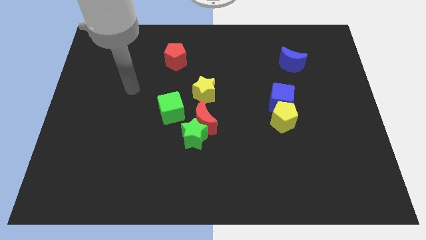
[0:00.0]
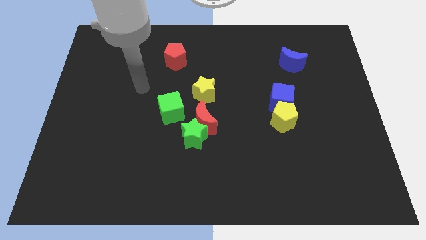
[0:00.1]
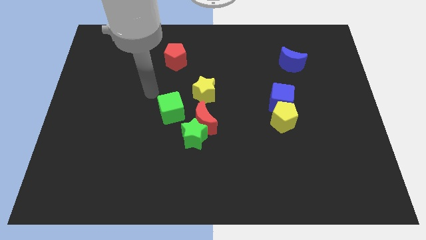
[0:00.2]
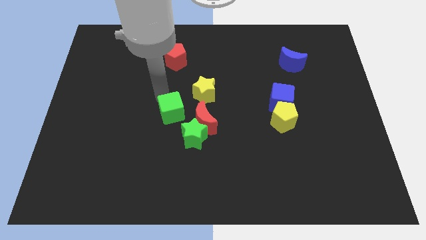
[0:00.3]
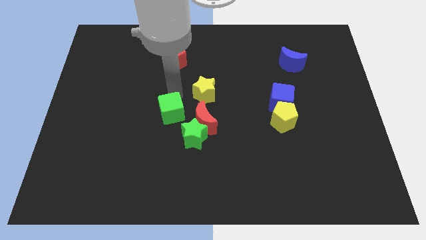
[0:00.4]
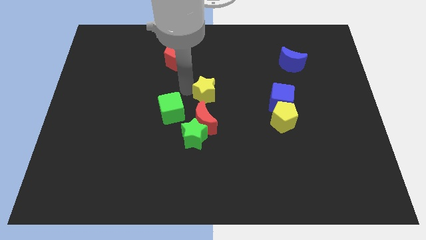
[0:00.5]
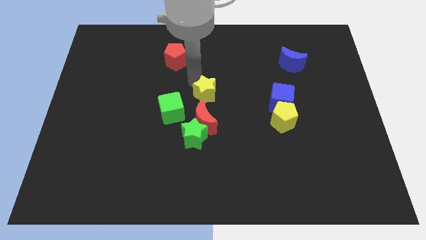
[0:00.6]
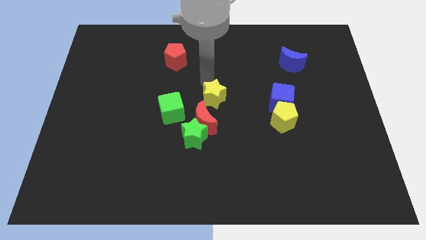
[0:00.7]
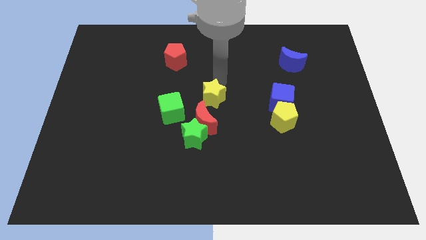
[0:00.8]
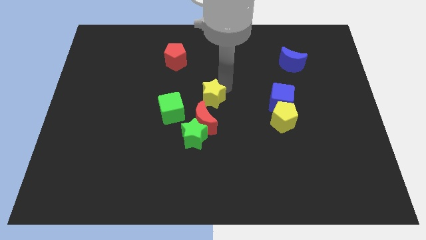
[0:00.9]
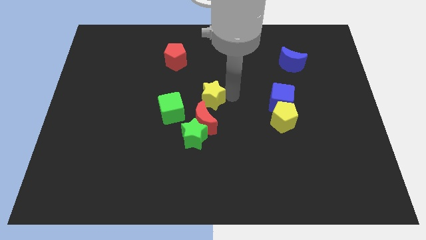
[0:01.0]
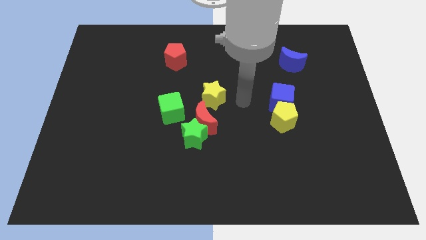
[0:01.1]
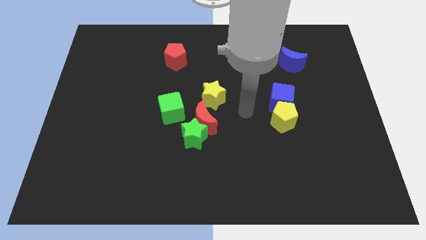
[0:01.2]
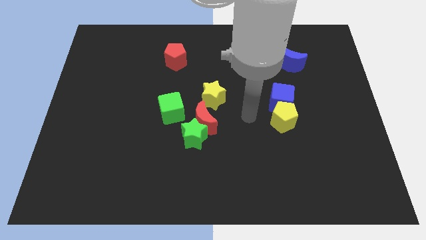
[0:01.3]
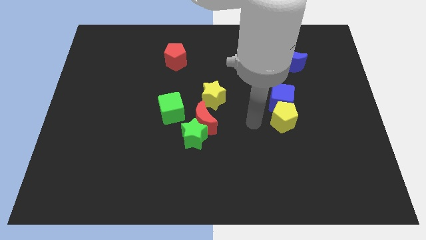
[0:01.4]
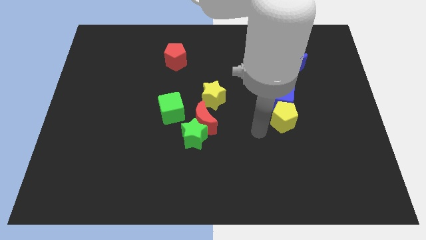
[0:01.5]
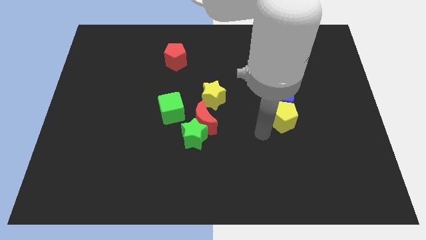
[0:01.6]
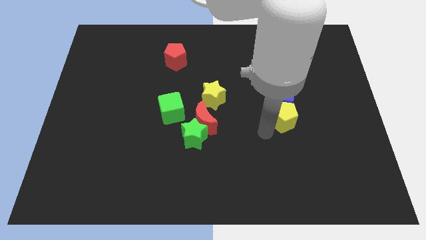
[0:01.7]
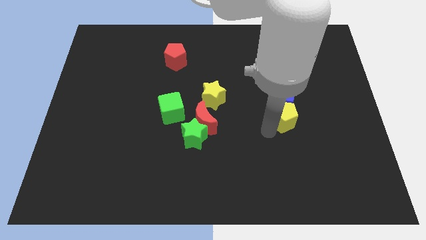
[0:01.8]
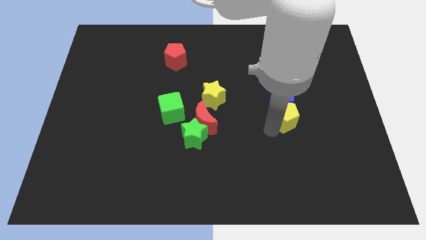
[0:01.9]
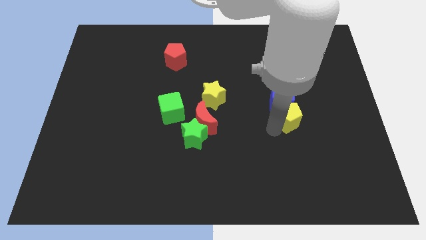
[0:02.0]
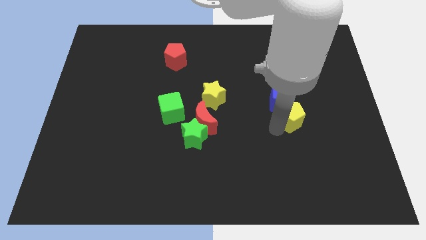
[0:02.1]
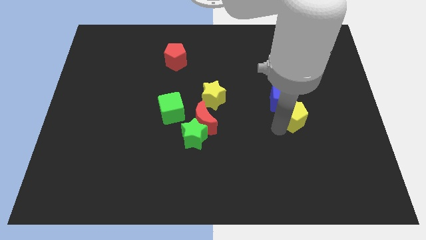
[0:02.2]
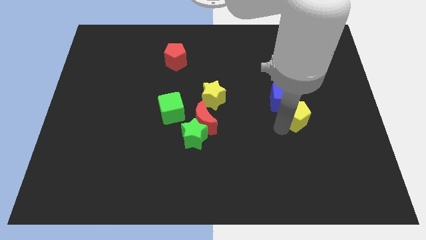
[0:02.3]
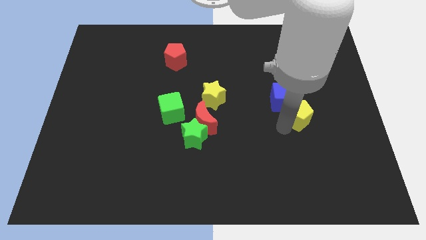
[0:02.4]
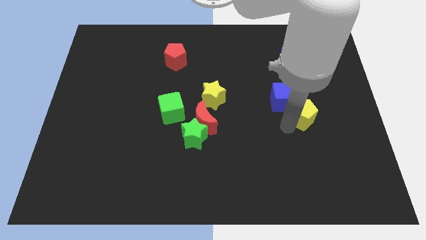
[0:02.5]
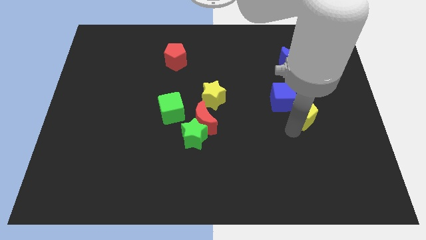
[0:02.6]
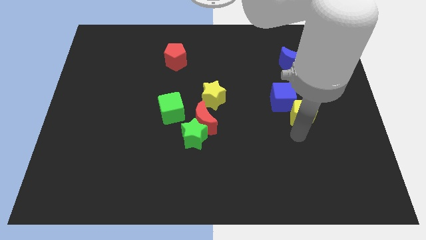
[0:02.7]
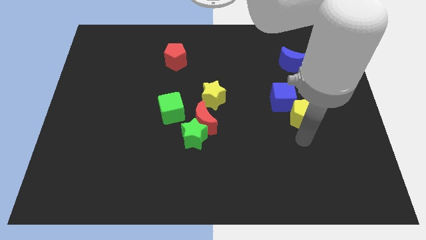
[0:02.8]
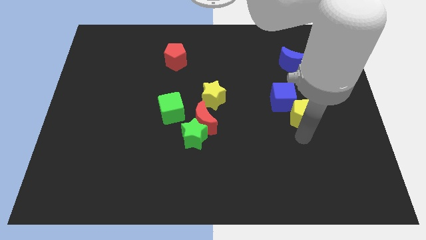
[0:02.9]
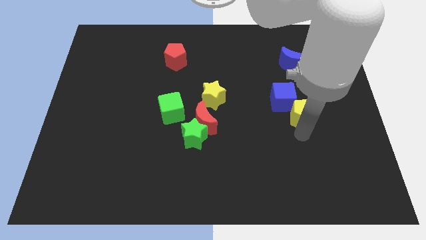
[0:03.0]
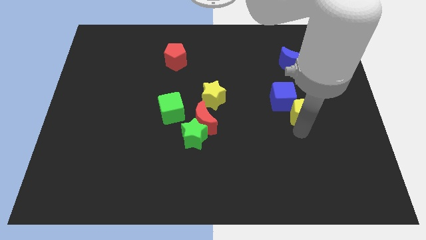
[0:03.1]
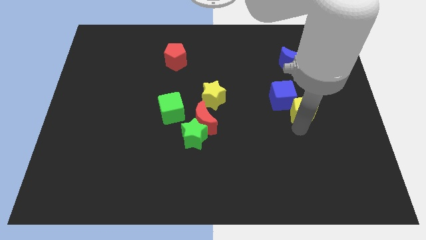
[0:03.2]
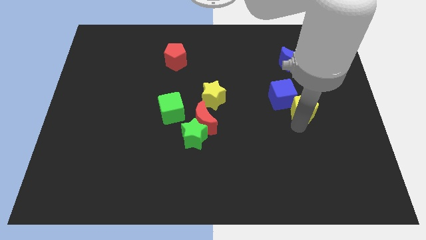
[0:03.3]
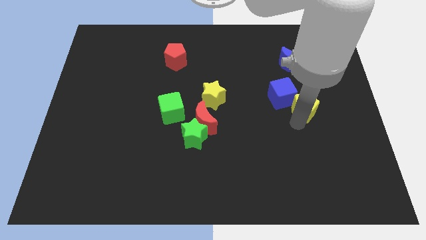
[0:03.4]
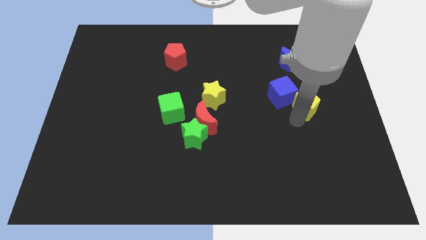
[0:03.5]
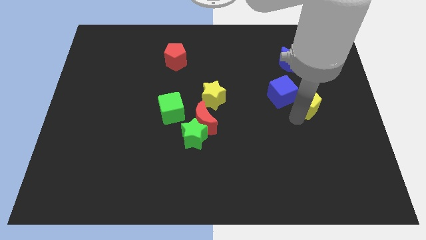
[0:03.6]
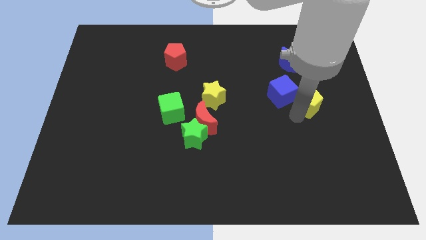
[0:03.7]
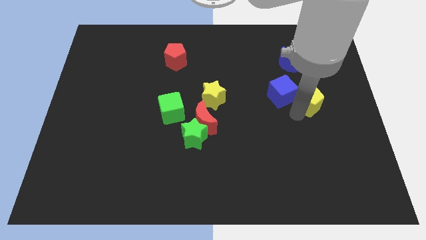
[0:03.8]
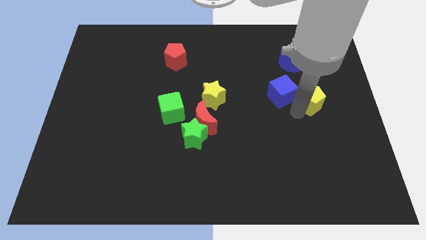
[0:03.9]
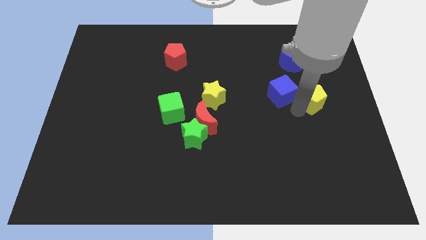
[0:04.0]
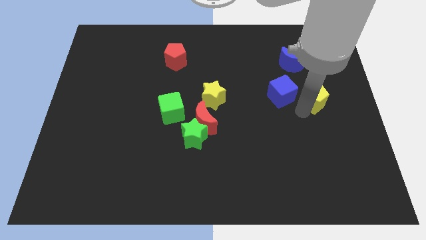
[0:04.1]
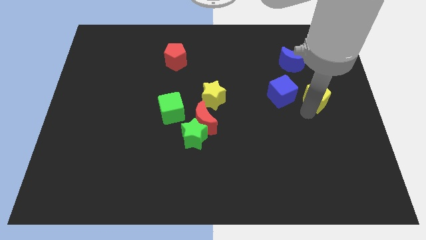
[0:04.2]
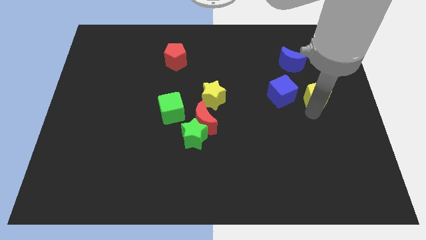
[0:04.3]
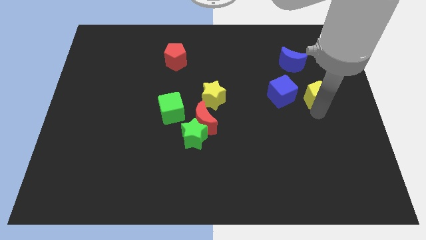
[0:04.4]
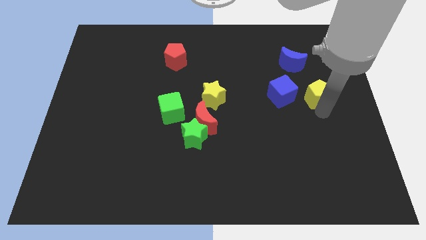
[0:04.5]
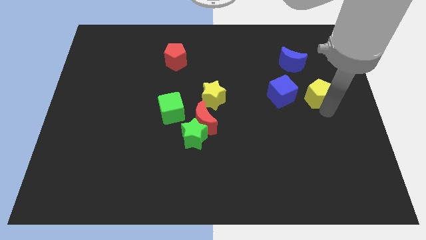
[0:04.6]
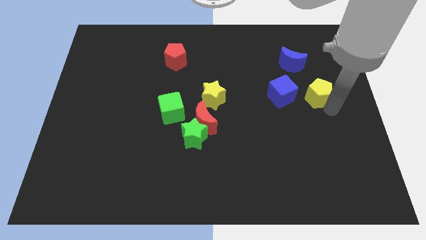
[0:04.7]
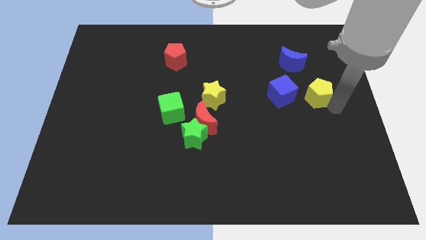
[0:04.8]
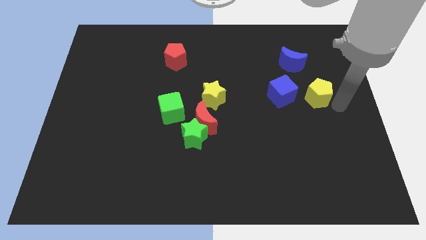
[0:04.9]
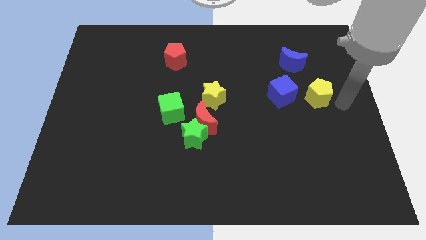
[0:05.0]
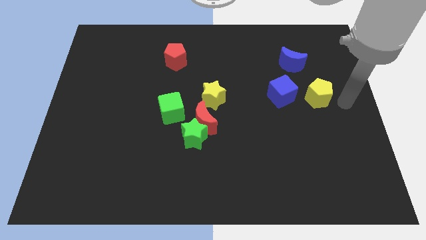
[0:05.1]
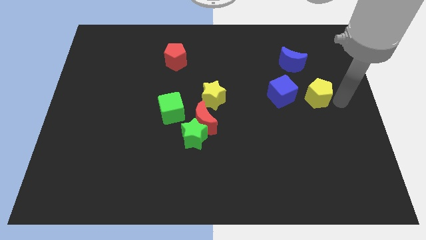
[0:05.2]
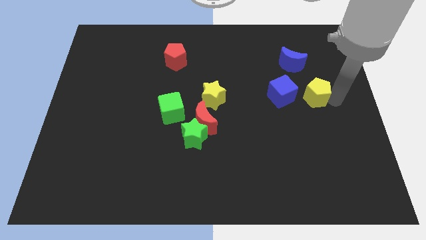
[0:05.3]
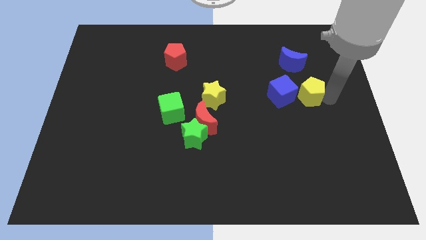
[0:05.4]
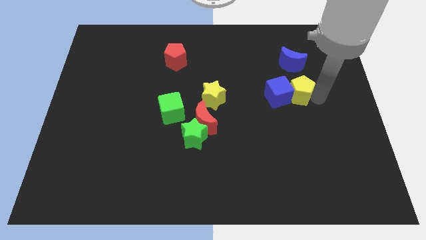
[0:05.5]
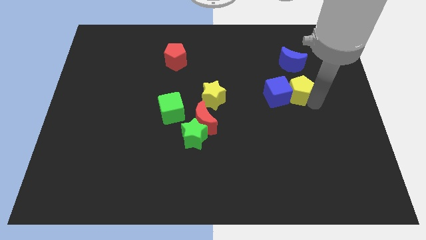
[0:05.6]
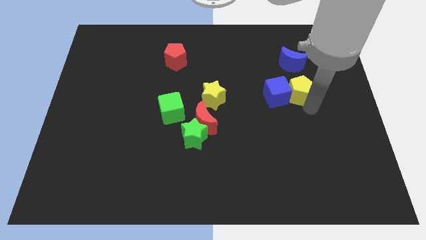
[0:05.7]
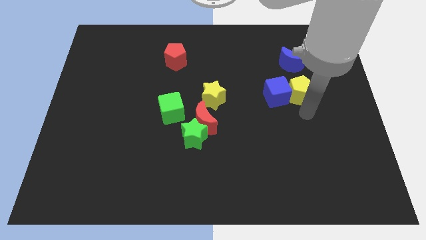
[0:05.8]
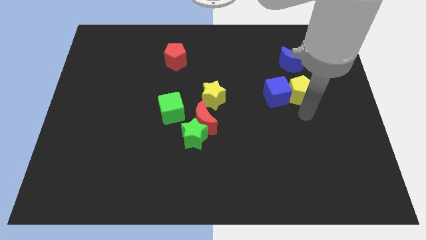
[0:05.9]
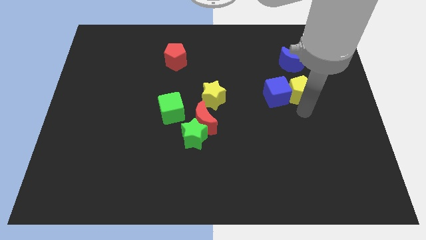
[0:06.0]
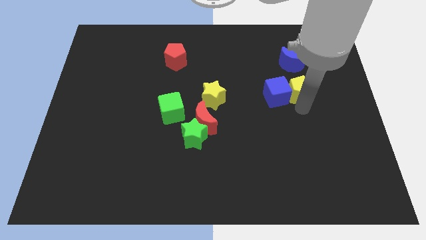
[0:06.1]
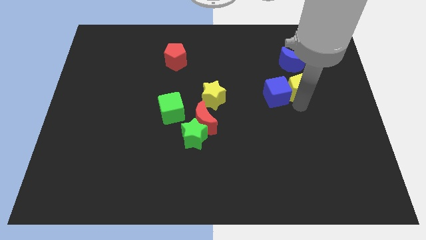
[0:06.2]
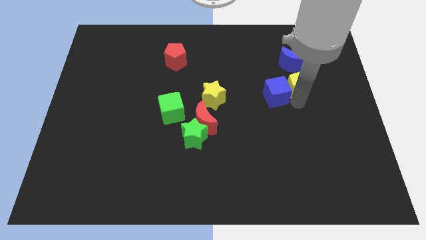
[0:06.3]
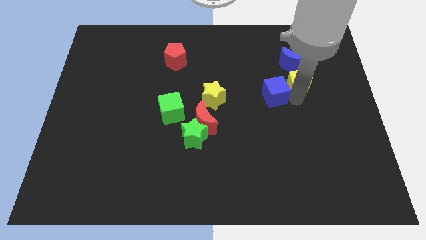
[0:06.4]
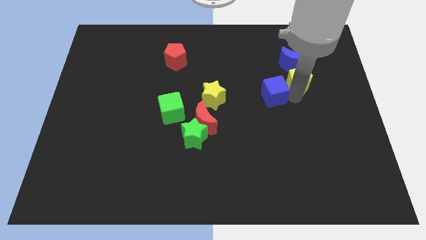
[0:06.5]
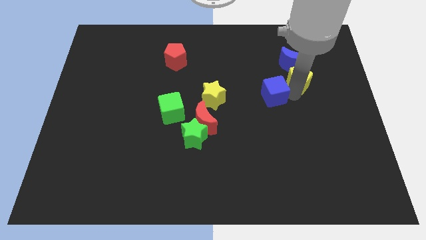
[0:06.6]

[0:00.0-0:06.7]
slide the yellow pentagon to the blue moon

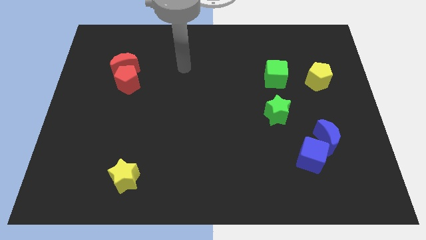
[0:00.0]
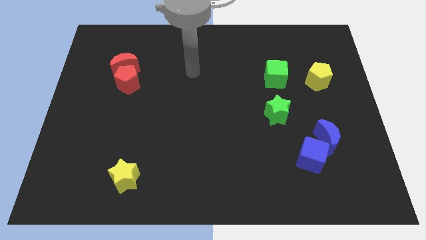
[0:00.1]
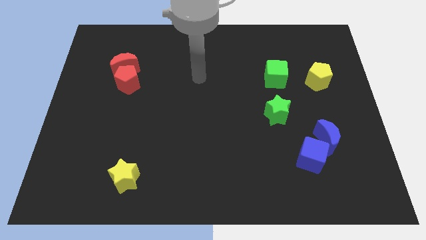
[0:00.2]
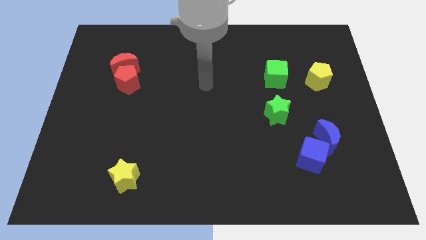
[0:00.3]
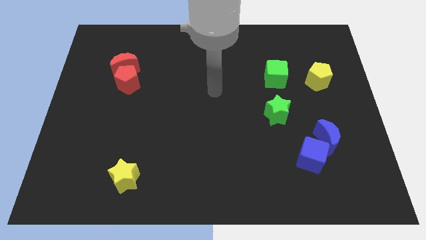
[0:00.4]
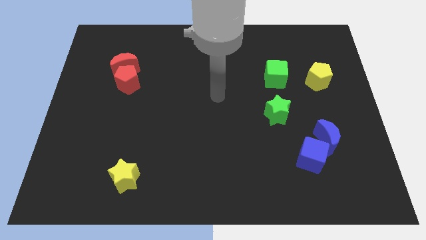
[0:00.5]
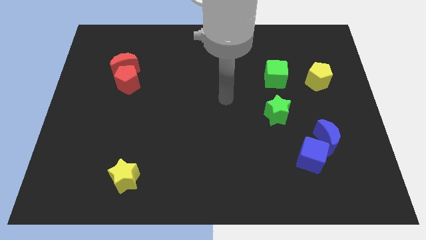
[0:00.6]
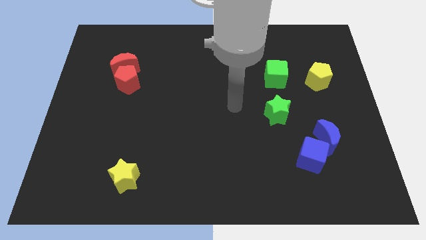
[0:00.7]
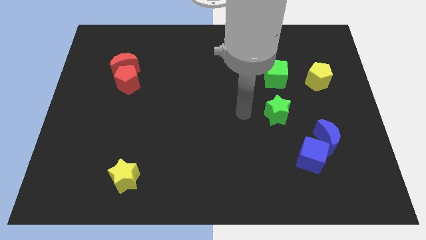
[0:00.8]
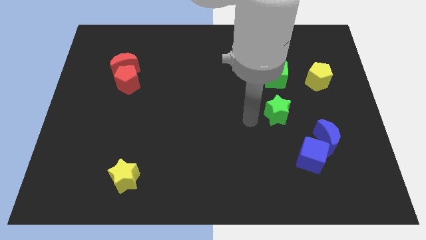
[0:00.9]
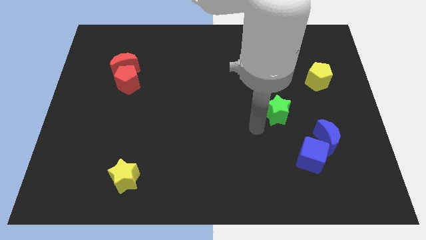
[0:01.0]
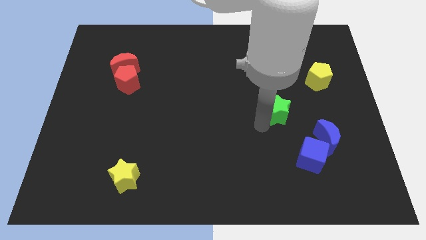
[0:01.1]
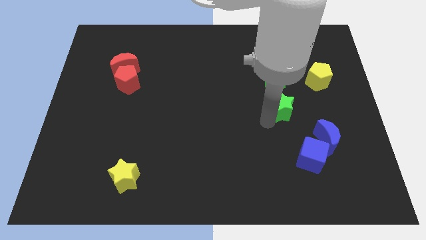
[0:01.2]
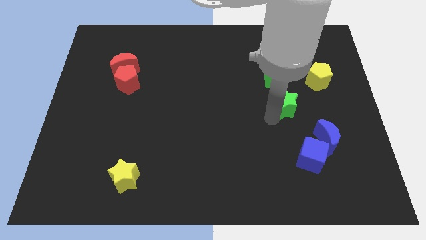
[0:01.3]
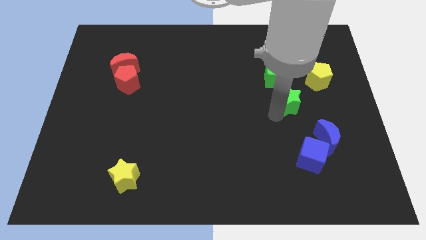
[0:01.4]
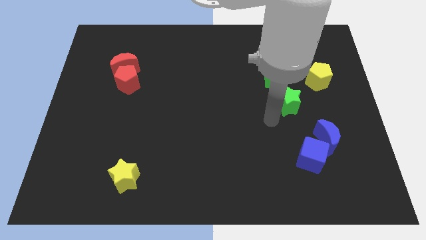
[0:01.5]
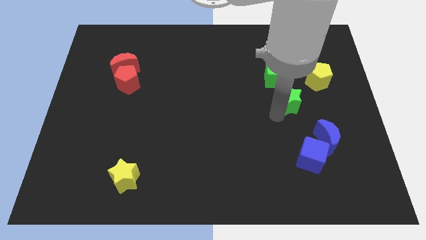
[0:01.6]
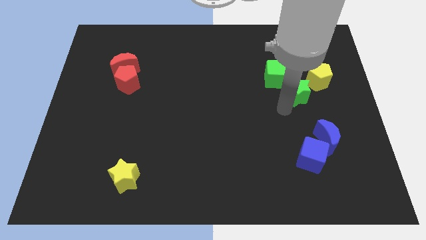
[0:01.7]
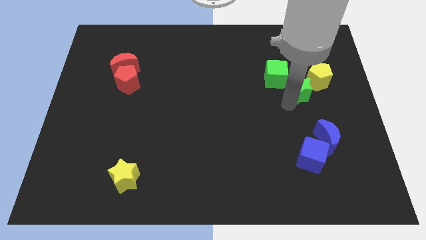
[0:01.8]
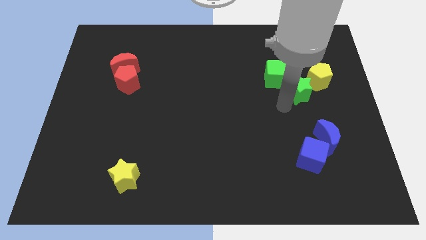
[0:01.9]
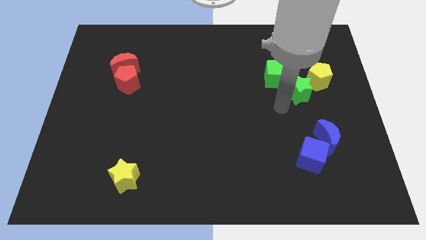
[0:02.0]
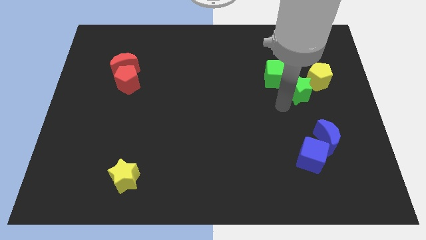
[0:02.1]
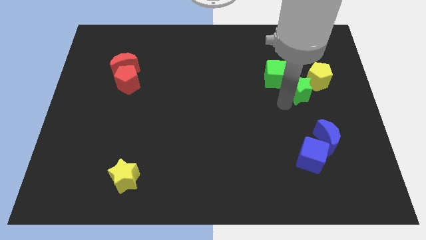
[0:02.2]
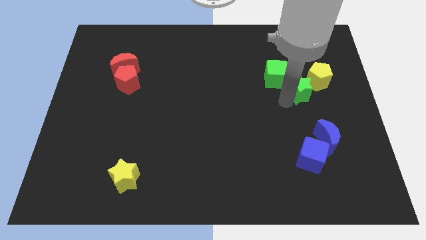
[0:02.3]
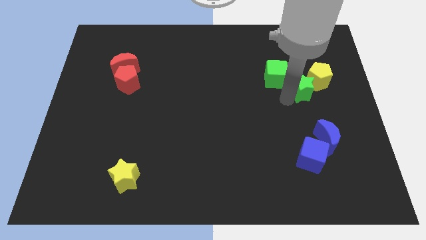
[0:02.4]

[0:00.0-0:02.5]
move the green star next to the yellow pentagon
